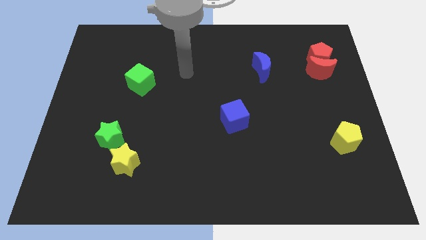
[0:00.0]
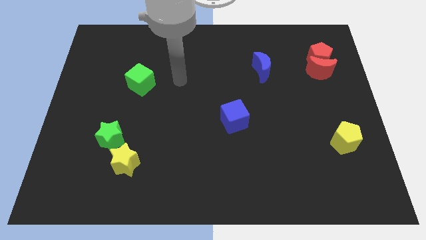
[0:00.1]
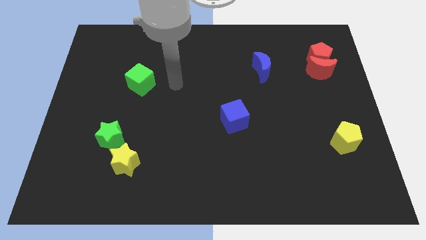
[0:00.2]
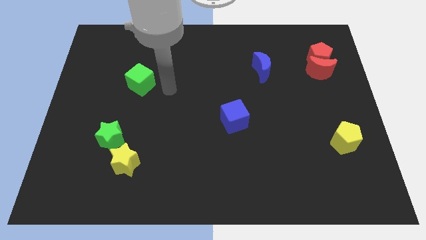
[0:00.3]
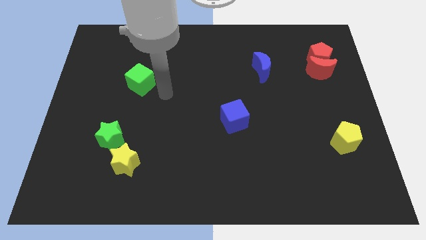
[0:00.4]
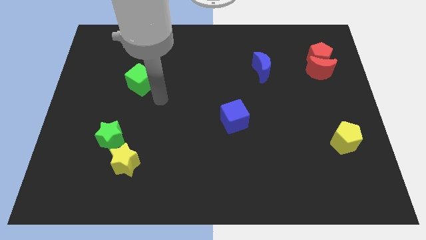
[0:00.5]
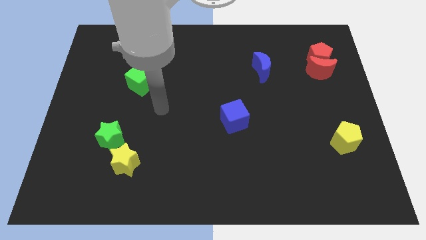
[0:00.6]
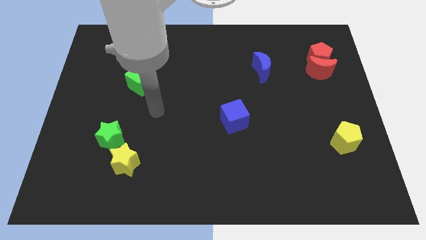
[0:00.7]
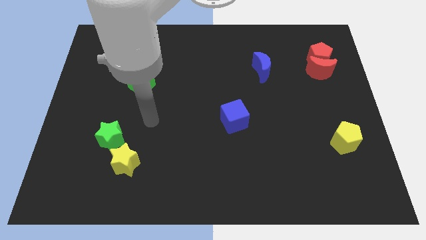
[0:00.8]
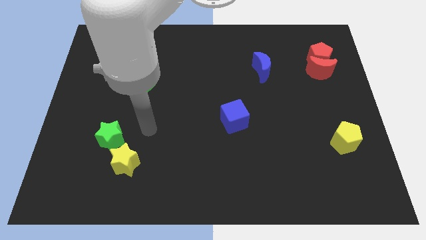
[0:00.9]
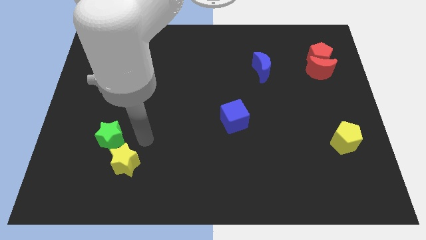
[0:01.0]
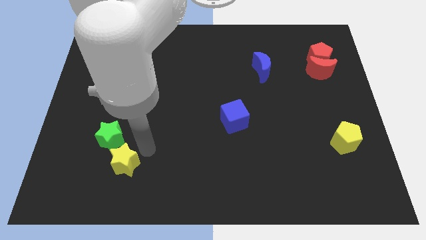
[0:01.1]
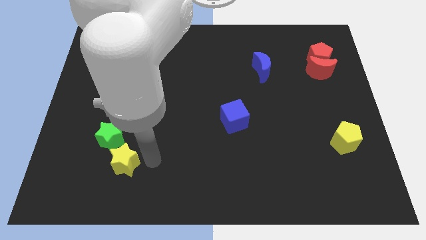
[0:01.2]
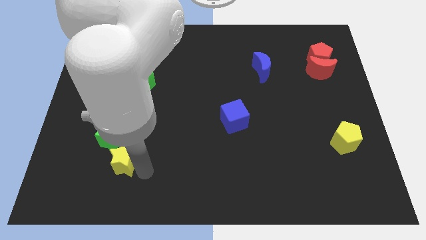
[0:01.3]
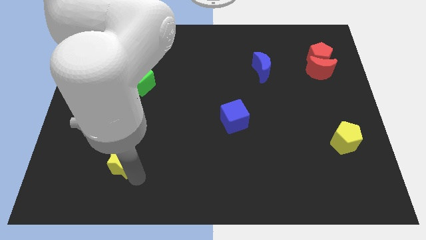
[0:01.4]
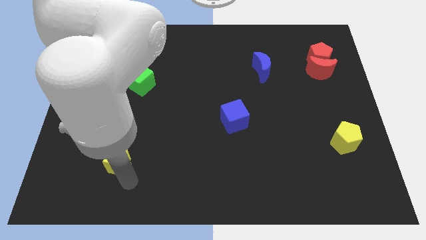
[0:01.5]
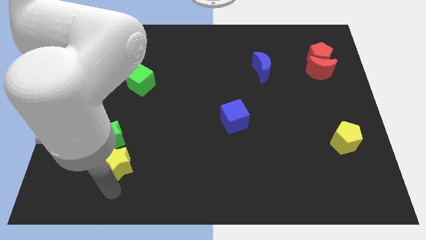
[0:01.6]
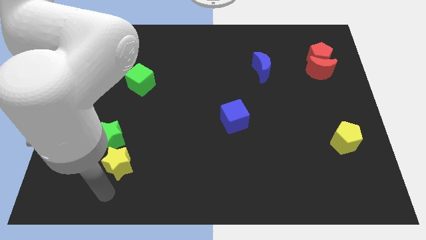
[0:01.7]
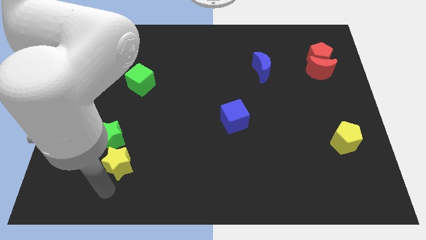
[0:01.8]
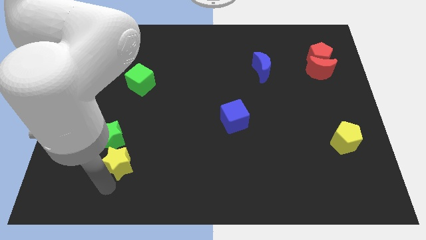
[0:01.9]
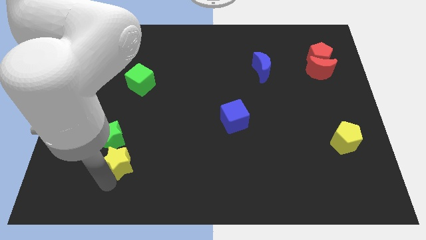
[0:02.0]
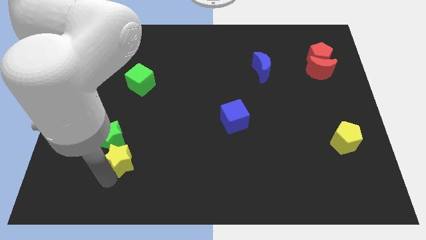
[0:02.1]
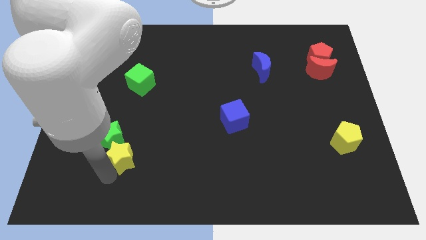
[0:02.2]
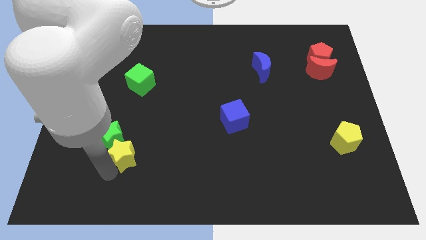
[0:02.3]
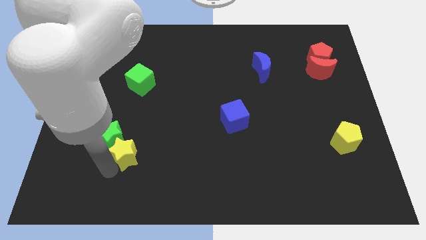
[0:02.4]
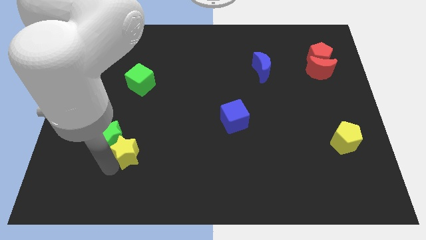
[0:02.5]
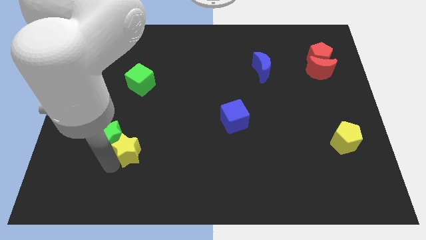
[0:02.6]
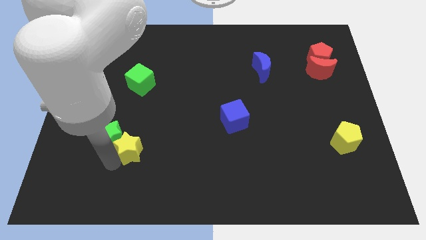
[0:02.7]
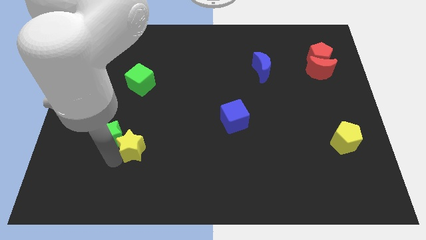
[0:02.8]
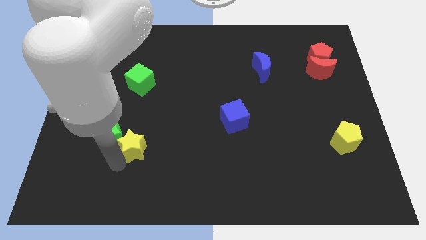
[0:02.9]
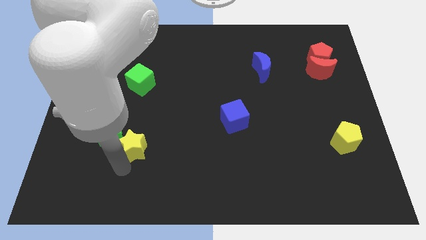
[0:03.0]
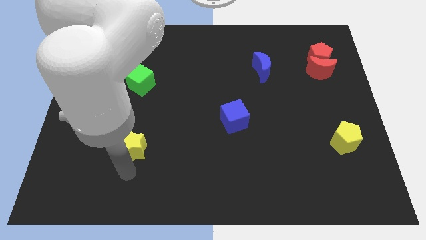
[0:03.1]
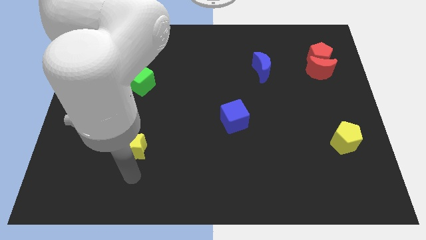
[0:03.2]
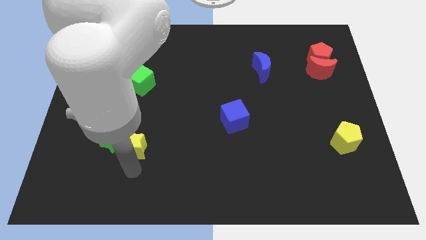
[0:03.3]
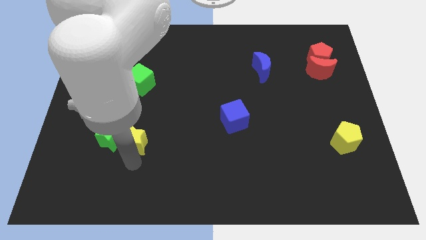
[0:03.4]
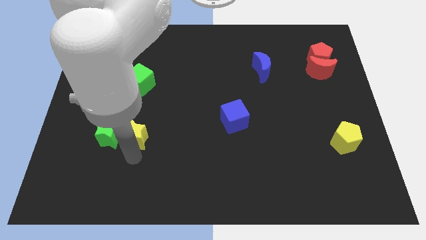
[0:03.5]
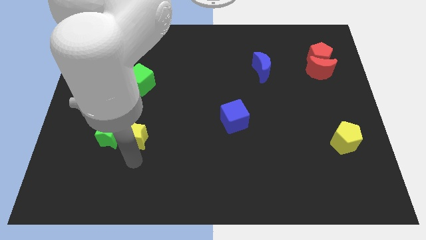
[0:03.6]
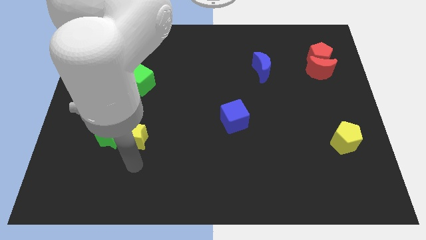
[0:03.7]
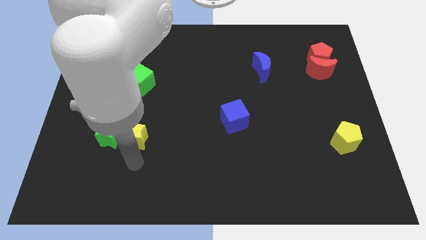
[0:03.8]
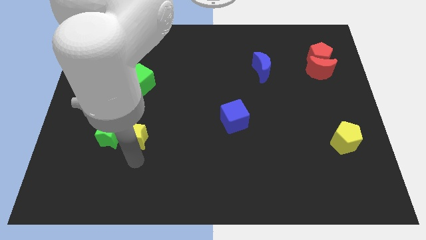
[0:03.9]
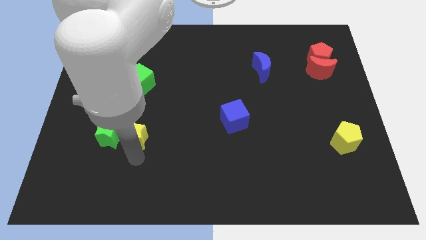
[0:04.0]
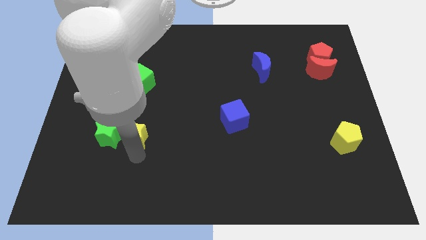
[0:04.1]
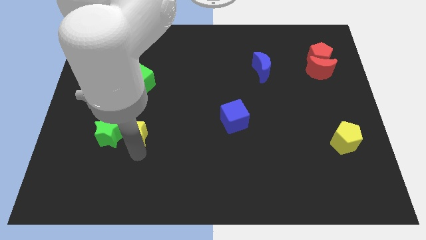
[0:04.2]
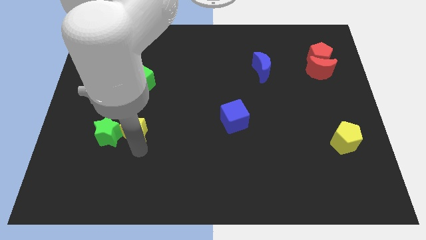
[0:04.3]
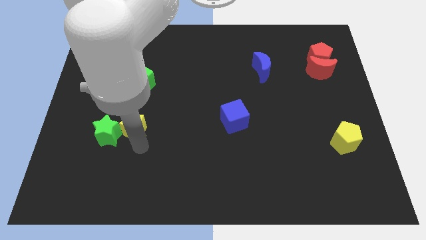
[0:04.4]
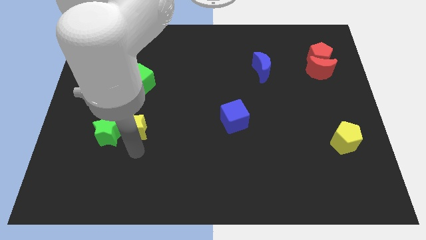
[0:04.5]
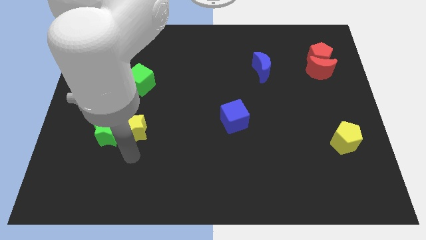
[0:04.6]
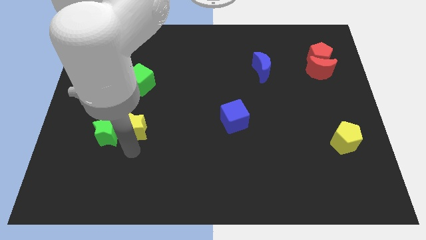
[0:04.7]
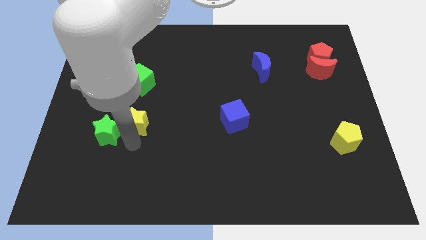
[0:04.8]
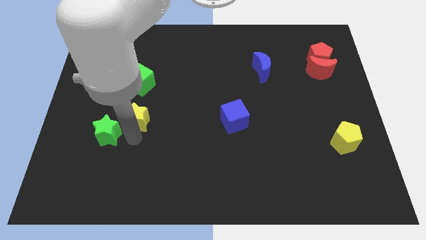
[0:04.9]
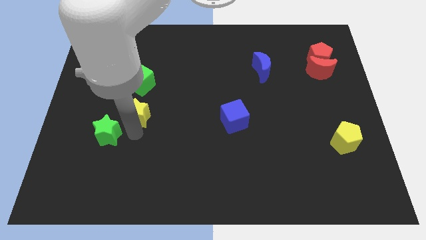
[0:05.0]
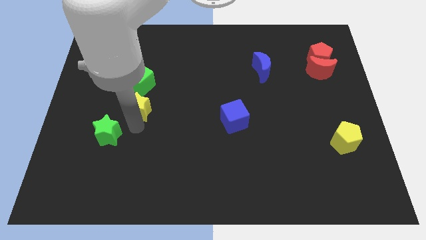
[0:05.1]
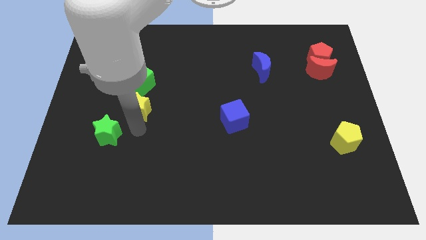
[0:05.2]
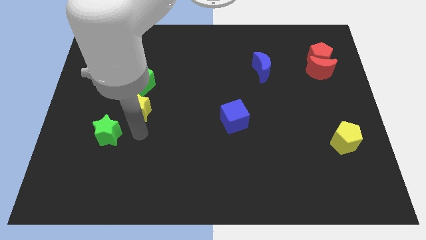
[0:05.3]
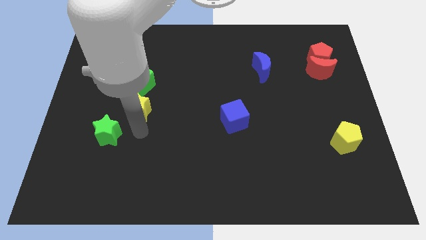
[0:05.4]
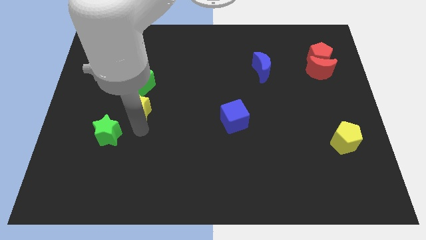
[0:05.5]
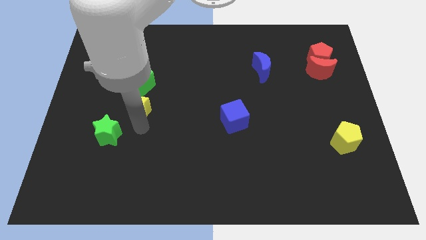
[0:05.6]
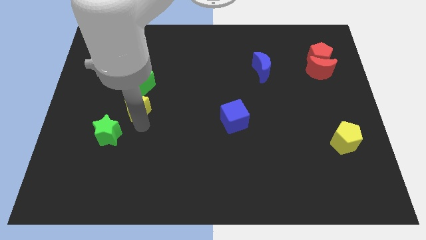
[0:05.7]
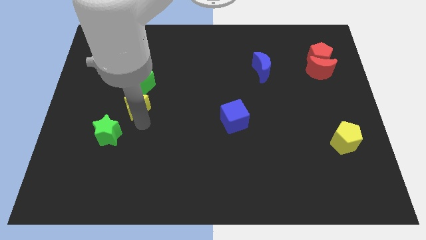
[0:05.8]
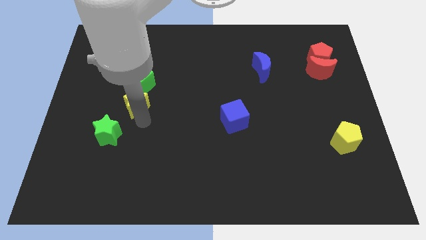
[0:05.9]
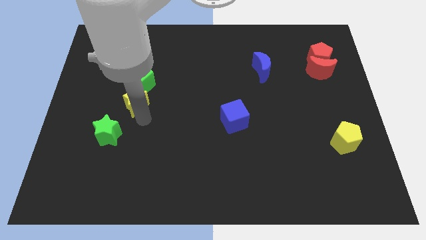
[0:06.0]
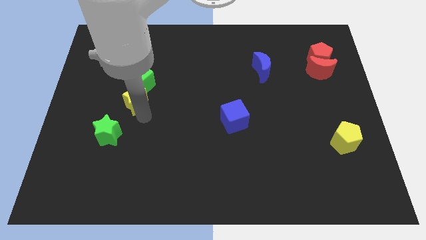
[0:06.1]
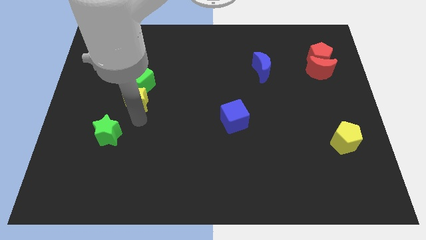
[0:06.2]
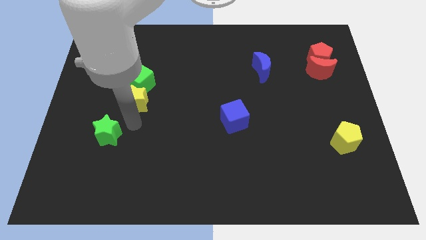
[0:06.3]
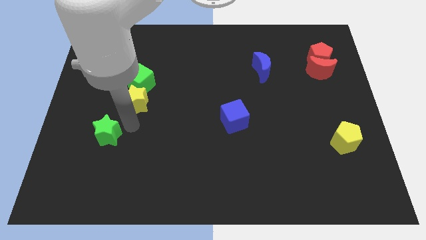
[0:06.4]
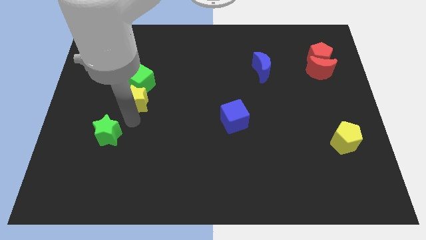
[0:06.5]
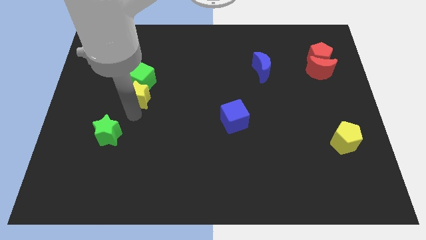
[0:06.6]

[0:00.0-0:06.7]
put the yellow star to the green cube
